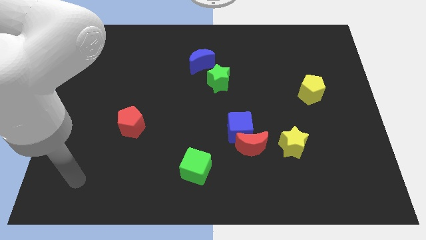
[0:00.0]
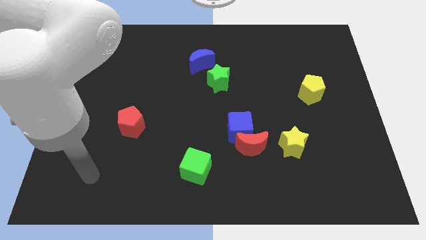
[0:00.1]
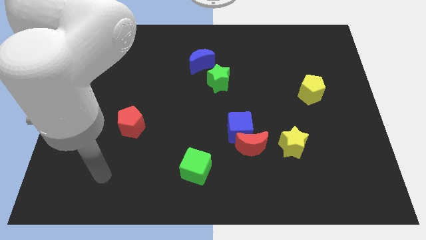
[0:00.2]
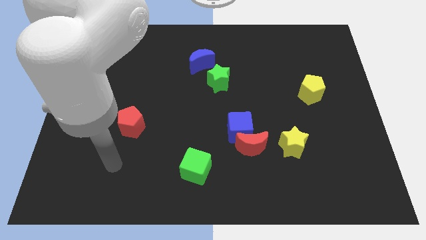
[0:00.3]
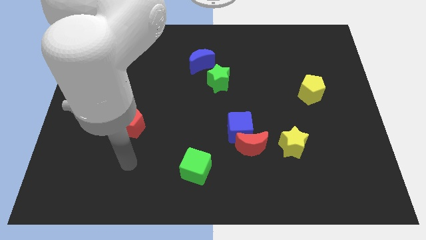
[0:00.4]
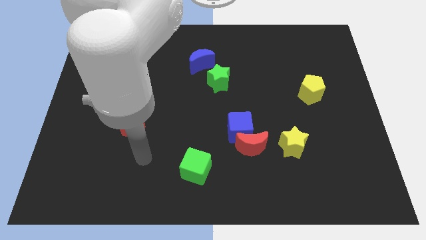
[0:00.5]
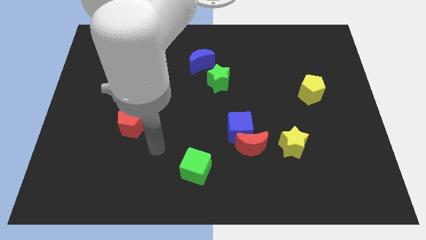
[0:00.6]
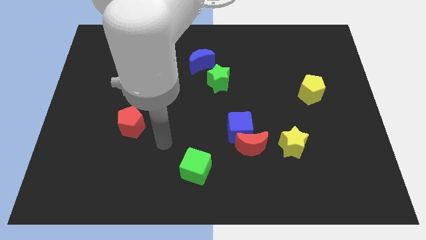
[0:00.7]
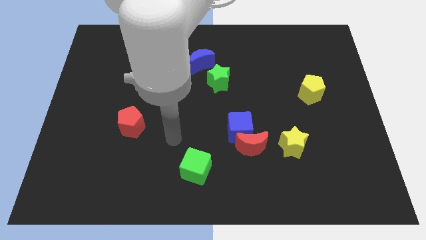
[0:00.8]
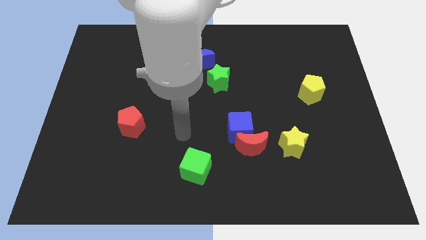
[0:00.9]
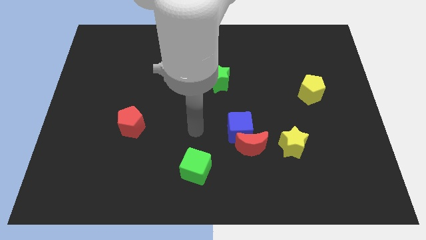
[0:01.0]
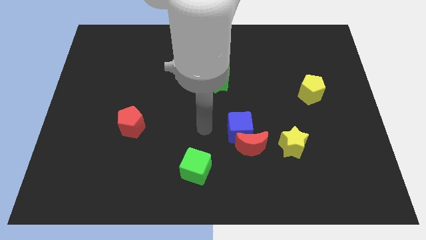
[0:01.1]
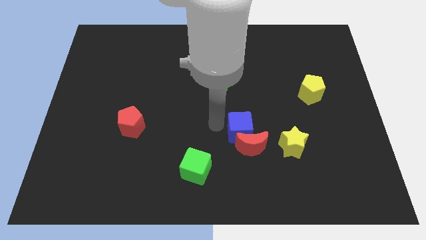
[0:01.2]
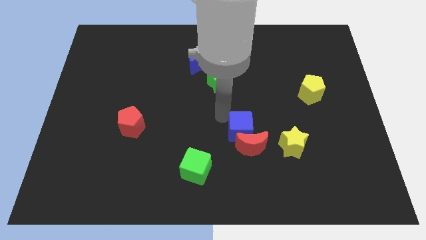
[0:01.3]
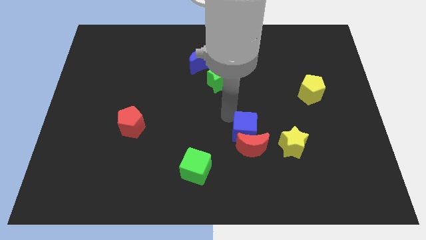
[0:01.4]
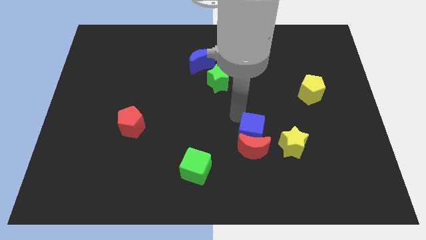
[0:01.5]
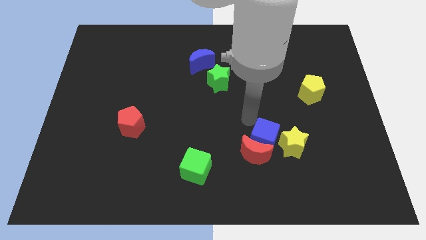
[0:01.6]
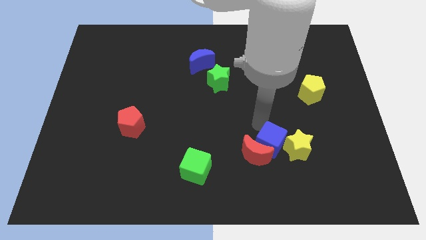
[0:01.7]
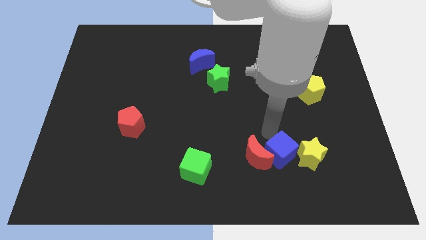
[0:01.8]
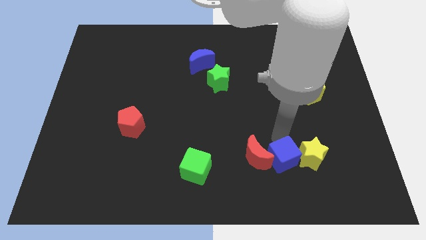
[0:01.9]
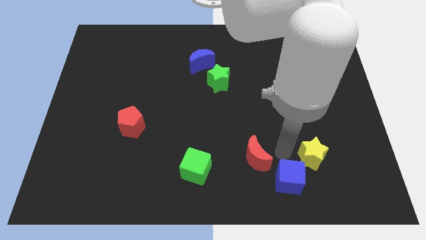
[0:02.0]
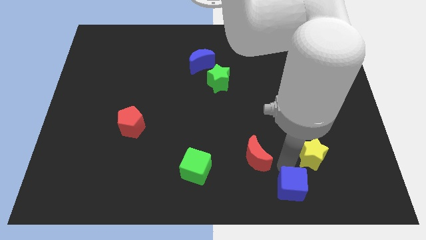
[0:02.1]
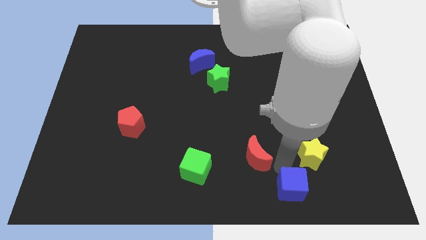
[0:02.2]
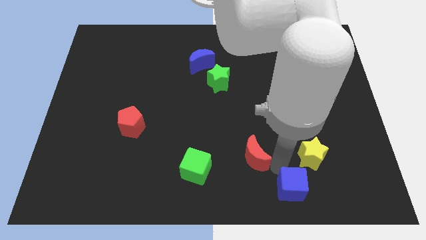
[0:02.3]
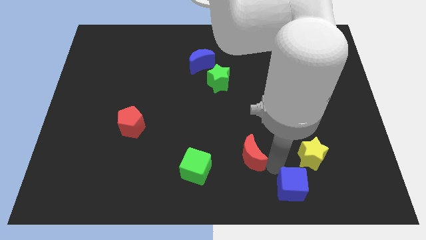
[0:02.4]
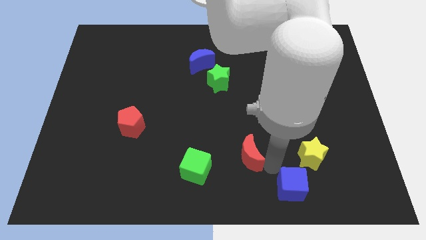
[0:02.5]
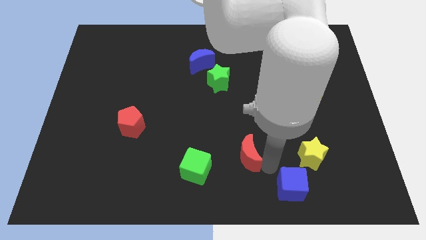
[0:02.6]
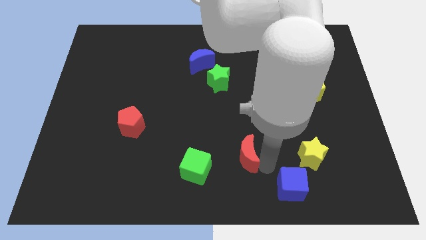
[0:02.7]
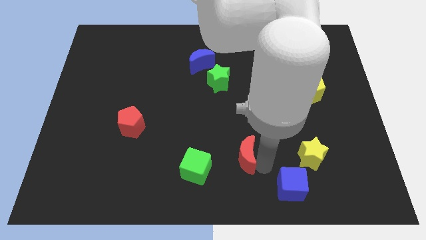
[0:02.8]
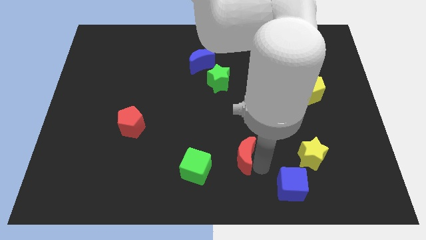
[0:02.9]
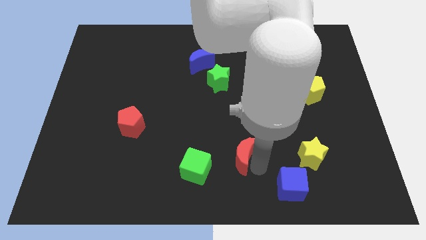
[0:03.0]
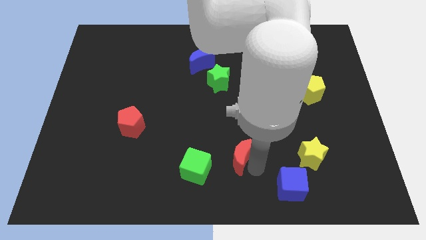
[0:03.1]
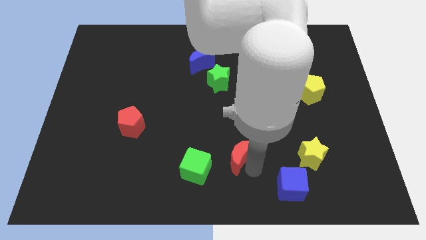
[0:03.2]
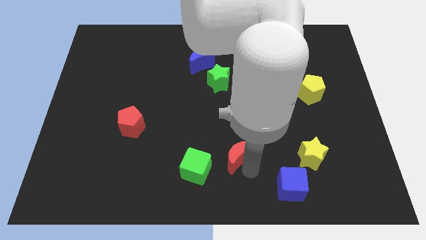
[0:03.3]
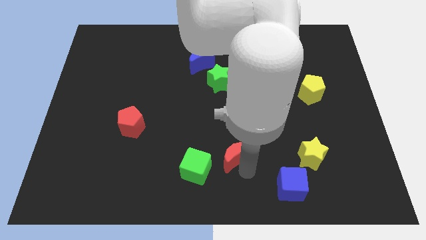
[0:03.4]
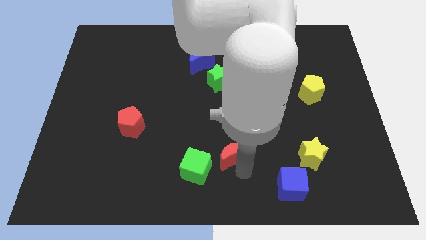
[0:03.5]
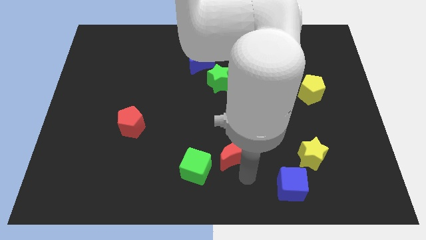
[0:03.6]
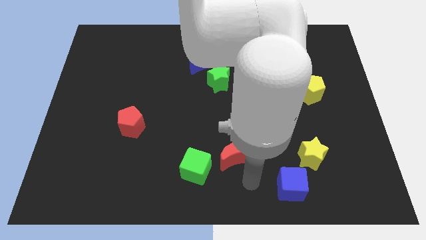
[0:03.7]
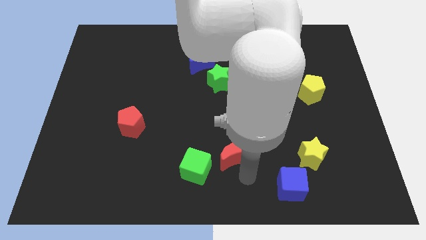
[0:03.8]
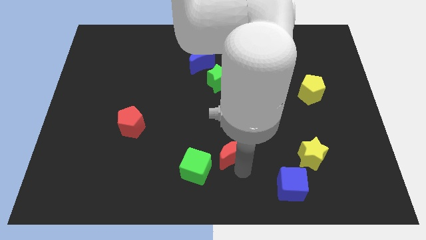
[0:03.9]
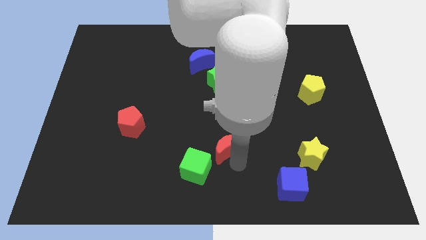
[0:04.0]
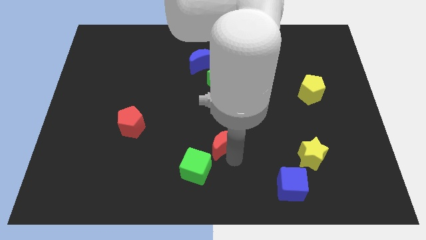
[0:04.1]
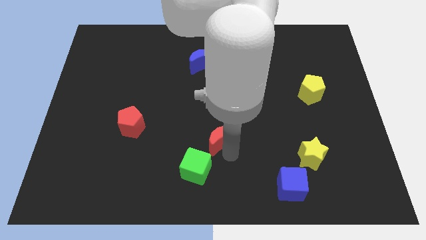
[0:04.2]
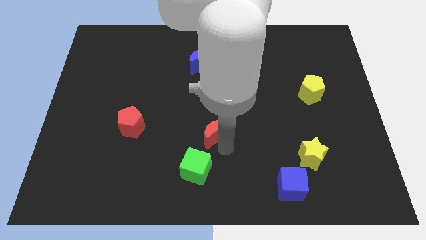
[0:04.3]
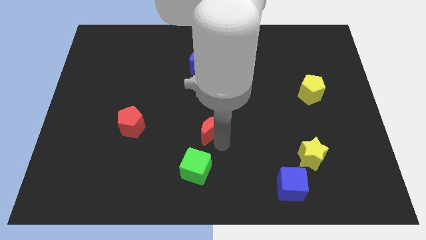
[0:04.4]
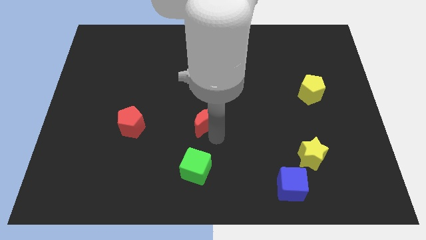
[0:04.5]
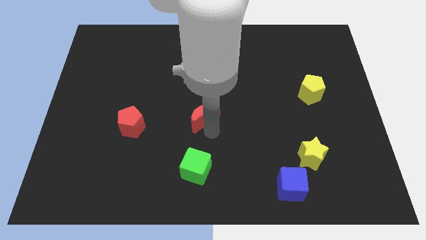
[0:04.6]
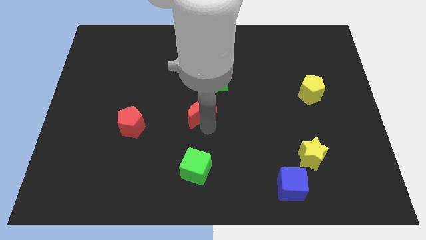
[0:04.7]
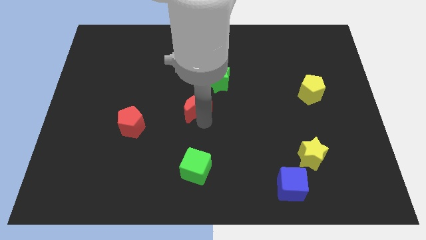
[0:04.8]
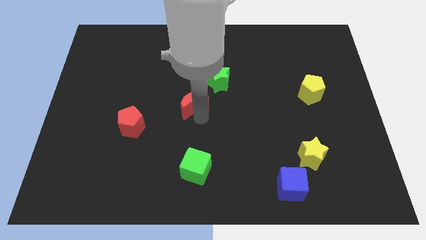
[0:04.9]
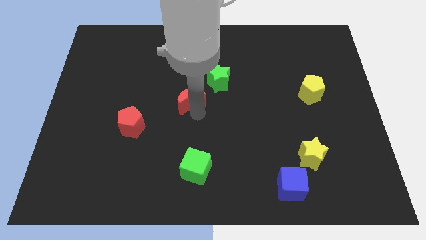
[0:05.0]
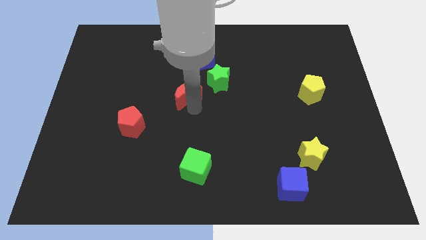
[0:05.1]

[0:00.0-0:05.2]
move the red moon diagonally up and left

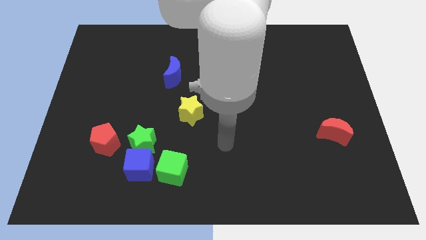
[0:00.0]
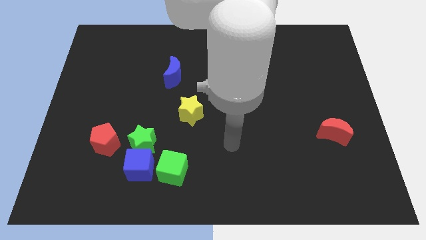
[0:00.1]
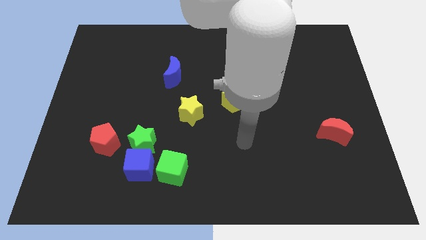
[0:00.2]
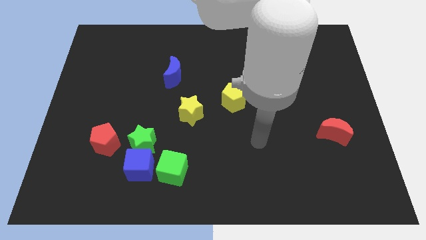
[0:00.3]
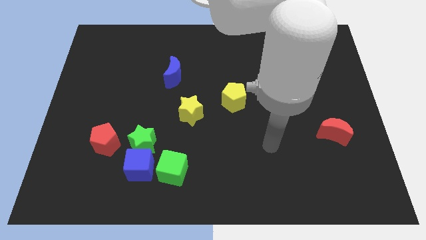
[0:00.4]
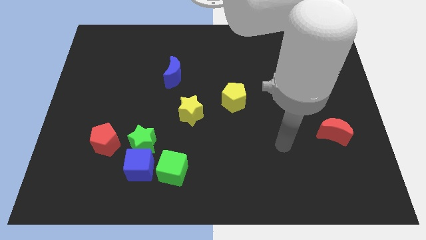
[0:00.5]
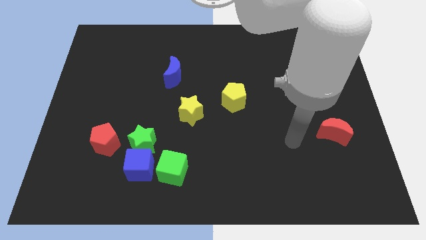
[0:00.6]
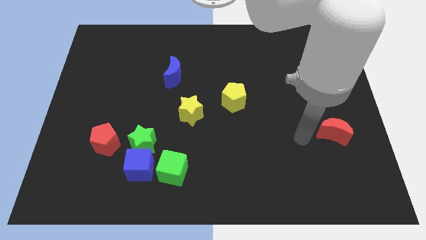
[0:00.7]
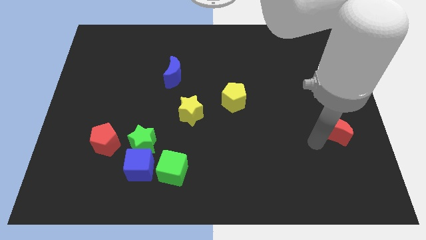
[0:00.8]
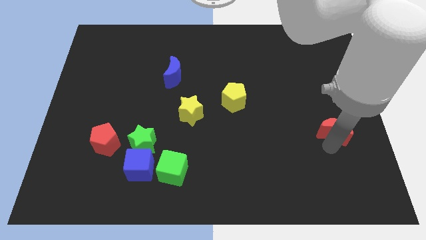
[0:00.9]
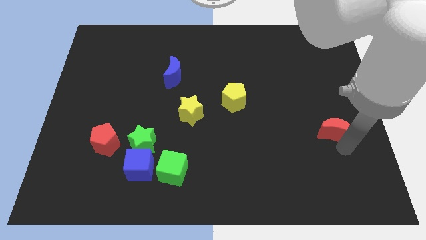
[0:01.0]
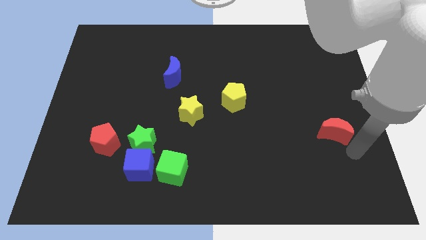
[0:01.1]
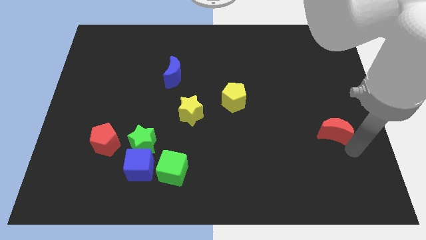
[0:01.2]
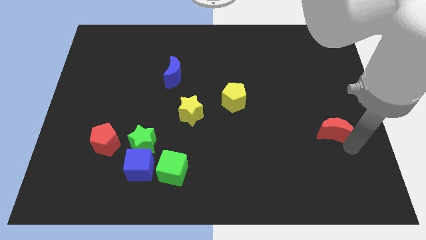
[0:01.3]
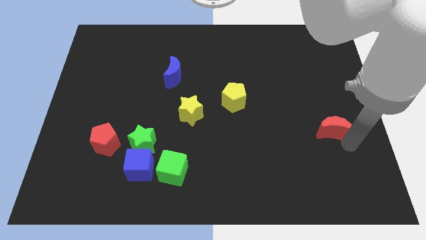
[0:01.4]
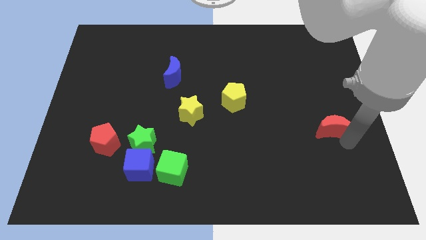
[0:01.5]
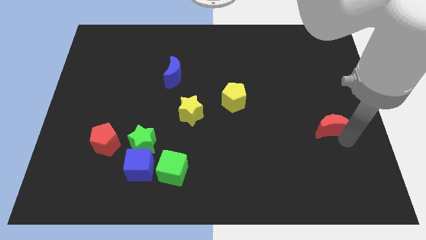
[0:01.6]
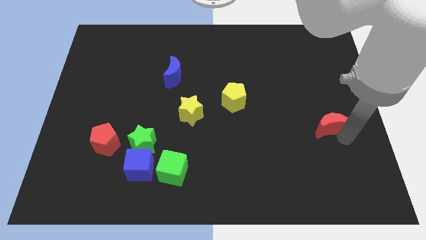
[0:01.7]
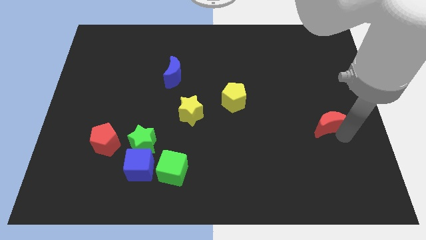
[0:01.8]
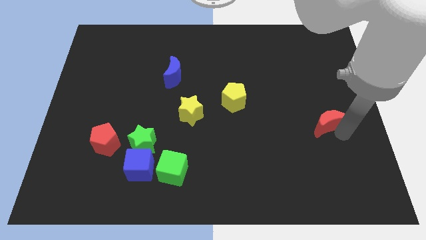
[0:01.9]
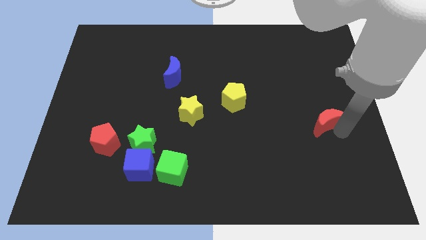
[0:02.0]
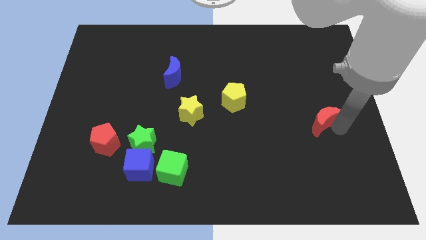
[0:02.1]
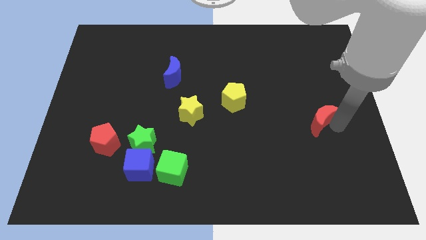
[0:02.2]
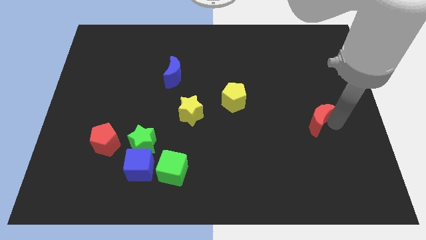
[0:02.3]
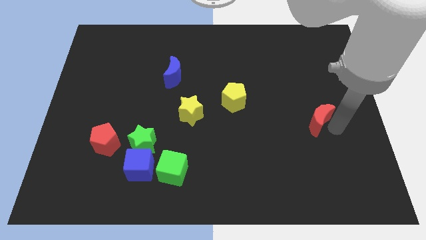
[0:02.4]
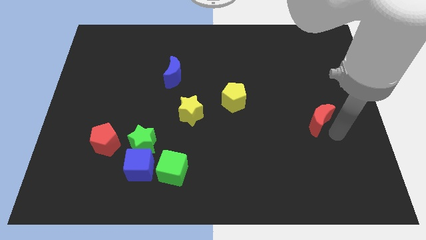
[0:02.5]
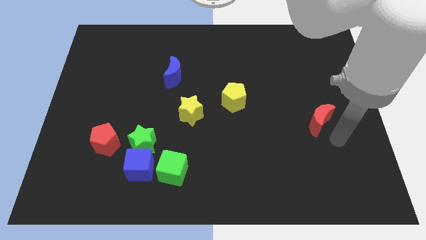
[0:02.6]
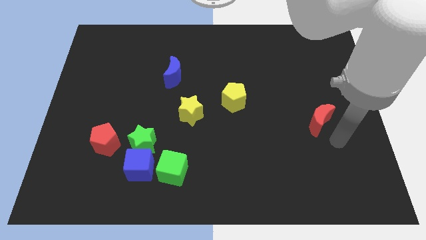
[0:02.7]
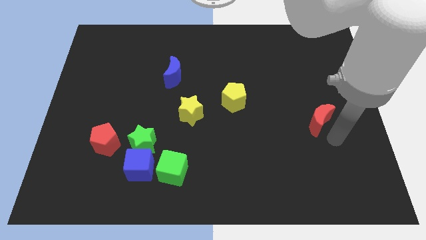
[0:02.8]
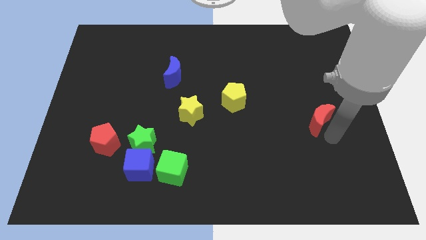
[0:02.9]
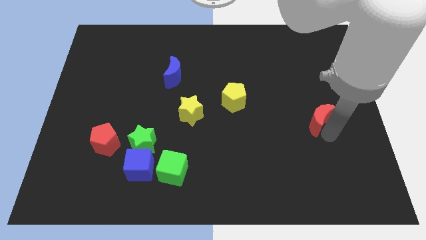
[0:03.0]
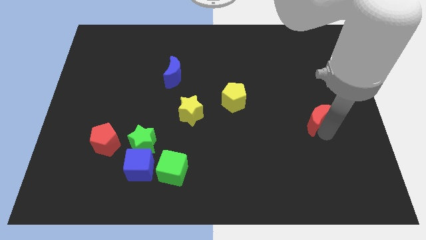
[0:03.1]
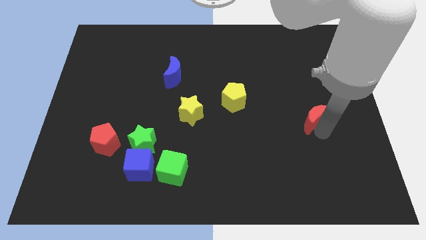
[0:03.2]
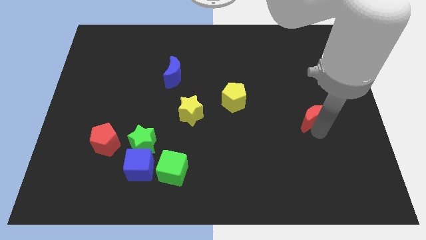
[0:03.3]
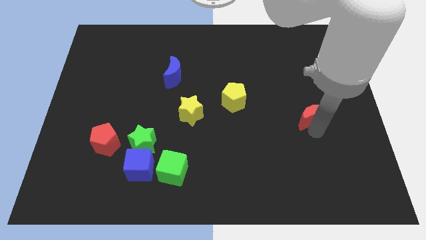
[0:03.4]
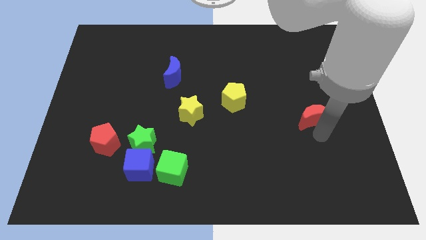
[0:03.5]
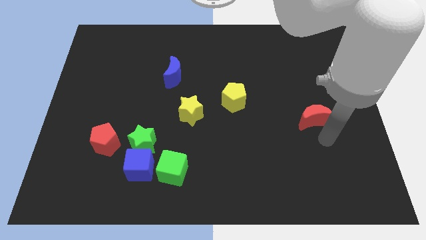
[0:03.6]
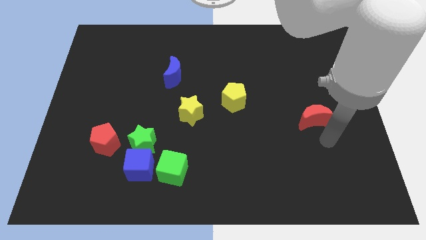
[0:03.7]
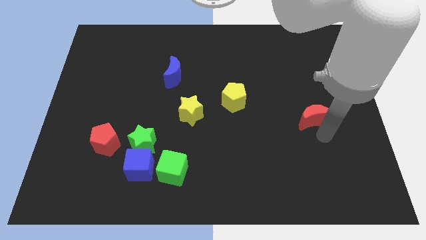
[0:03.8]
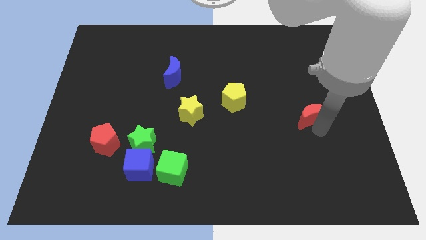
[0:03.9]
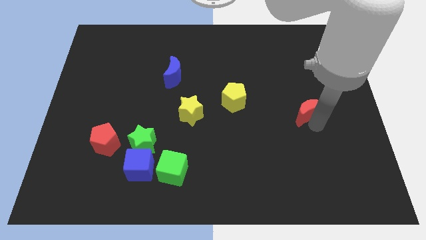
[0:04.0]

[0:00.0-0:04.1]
slightly push the red moon upwards and then left
